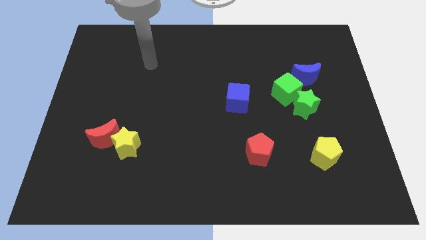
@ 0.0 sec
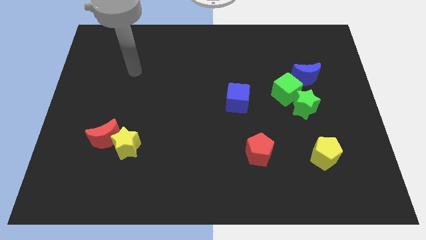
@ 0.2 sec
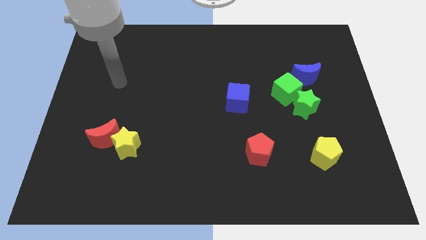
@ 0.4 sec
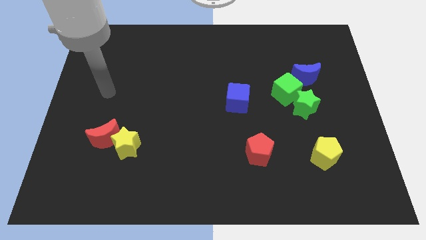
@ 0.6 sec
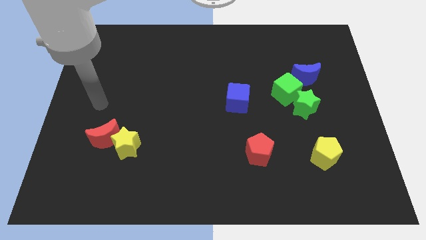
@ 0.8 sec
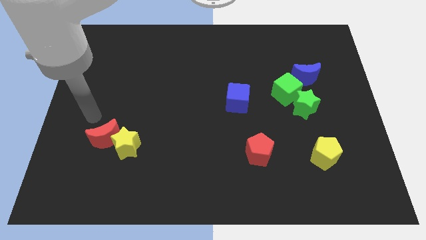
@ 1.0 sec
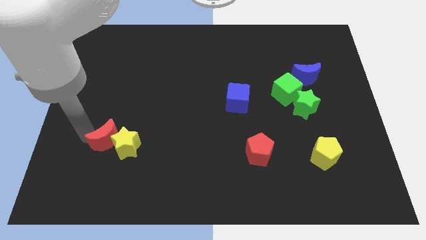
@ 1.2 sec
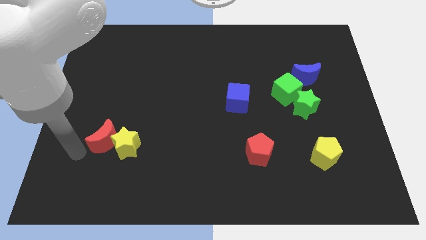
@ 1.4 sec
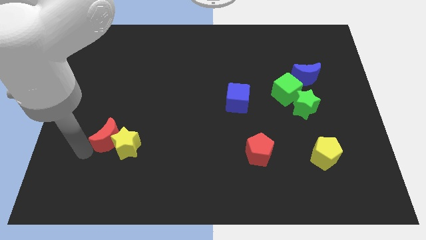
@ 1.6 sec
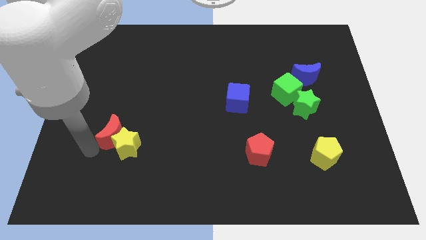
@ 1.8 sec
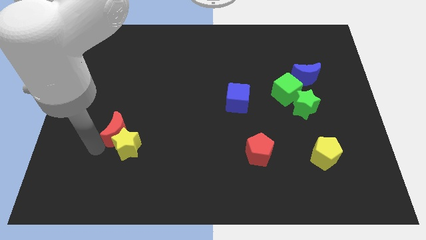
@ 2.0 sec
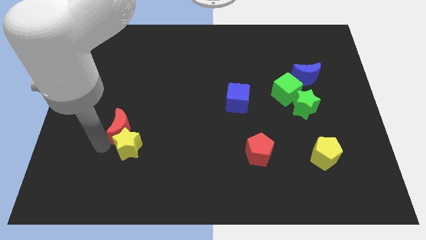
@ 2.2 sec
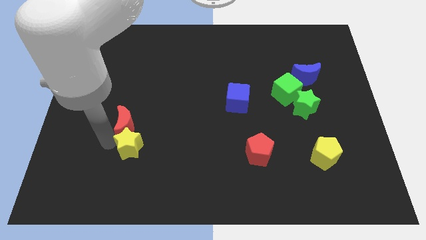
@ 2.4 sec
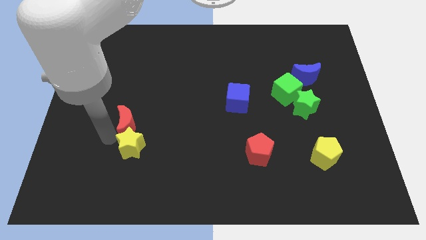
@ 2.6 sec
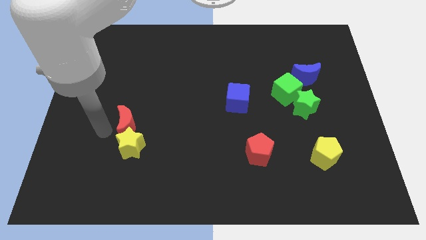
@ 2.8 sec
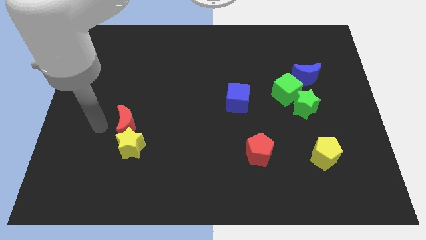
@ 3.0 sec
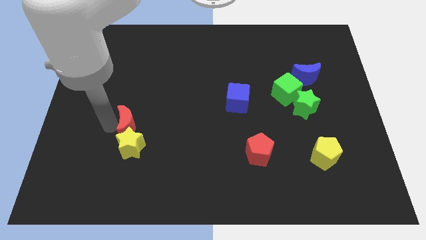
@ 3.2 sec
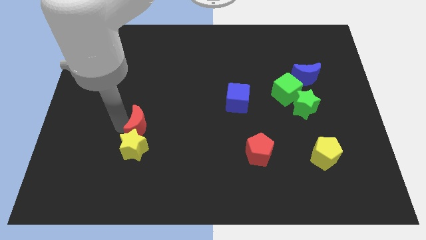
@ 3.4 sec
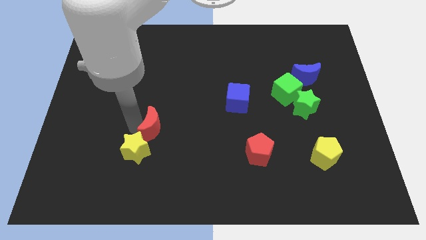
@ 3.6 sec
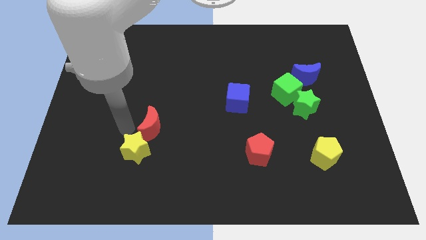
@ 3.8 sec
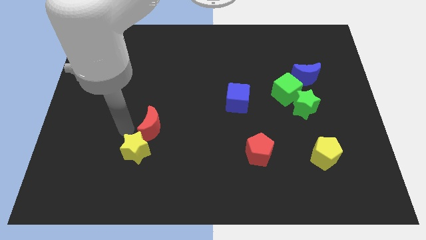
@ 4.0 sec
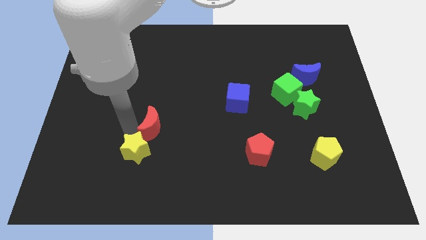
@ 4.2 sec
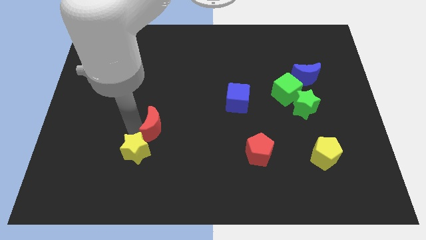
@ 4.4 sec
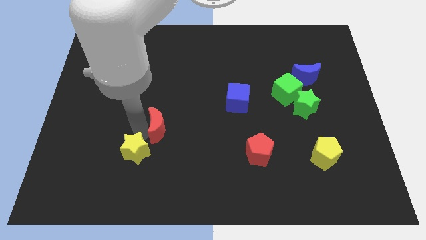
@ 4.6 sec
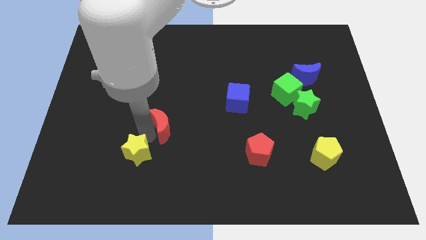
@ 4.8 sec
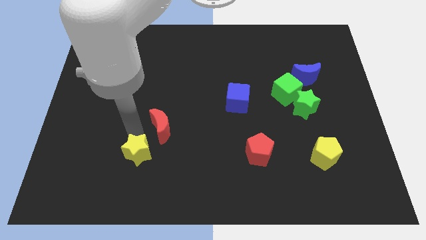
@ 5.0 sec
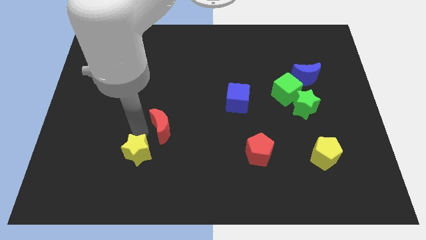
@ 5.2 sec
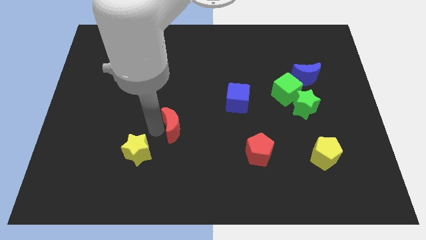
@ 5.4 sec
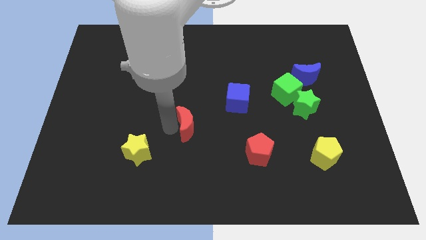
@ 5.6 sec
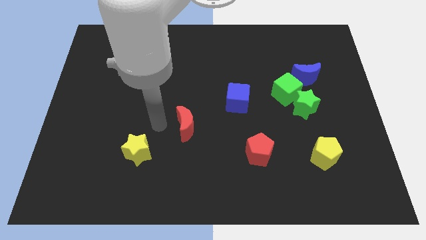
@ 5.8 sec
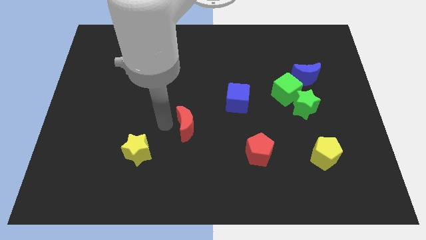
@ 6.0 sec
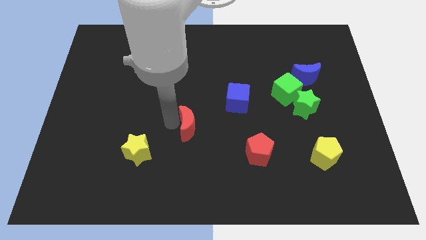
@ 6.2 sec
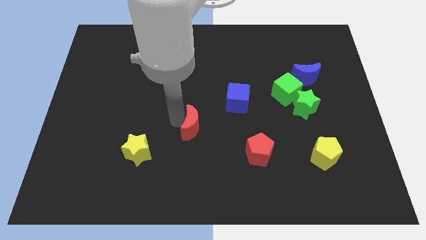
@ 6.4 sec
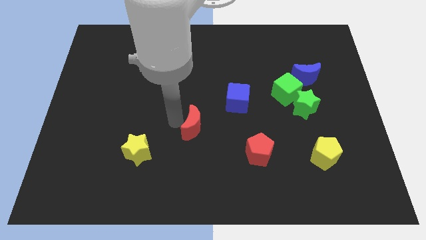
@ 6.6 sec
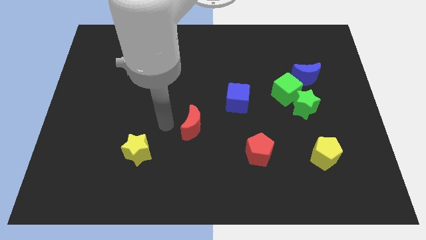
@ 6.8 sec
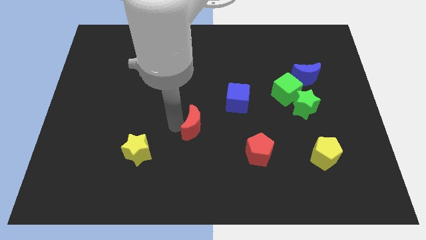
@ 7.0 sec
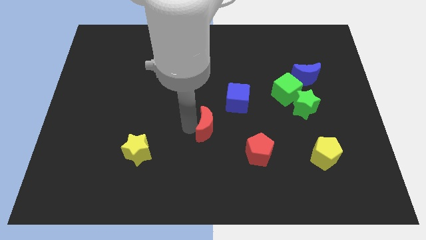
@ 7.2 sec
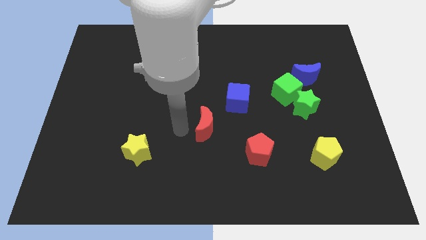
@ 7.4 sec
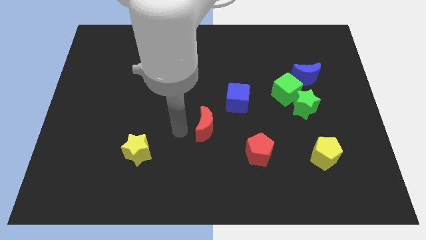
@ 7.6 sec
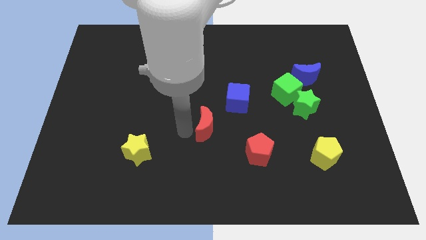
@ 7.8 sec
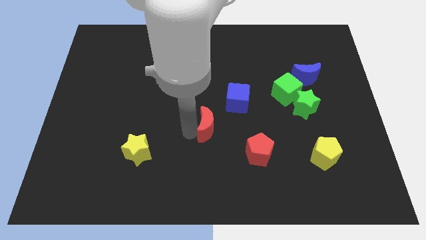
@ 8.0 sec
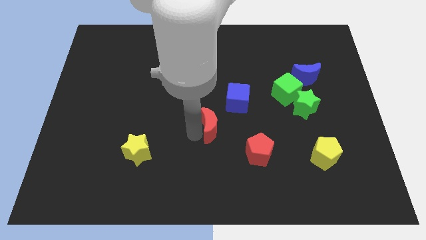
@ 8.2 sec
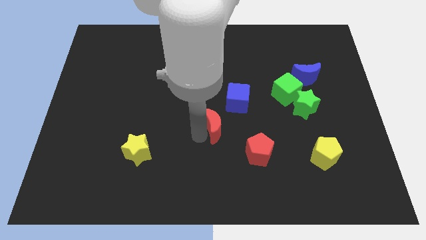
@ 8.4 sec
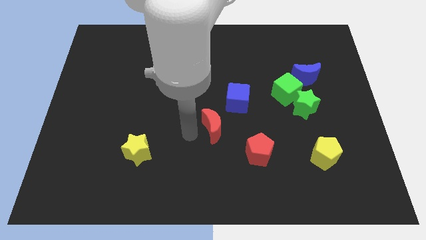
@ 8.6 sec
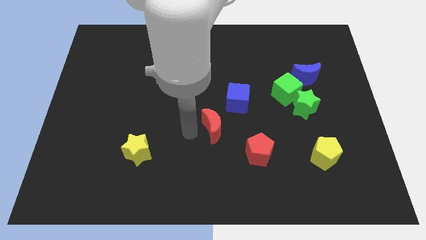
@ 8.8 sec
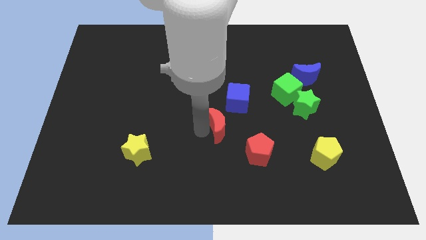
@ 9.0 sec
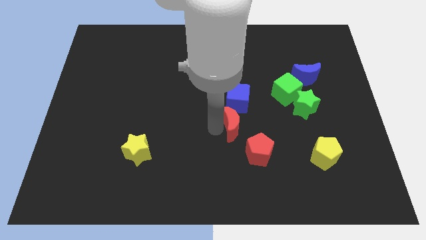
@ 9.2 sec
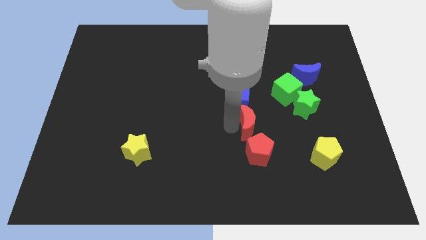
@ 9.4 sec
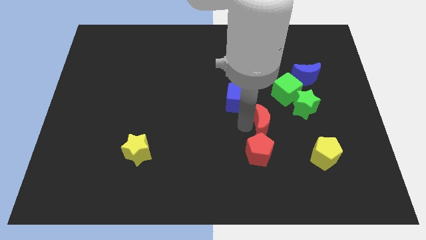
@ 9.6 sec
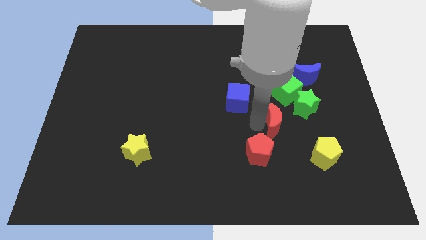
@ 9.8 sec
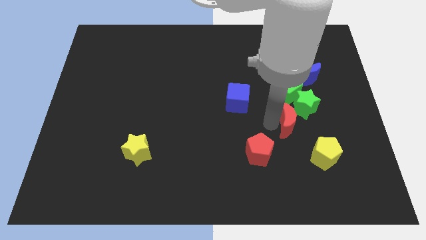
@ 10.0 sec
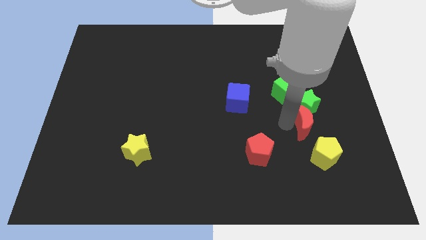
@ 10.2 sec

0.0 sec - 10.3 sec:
put the red moon to the bottom right of the green star

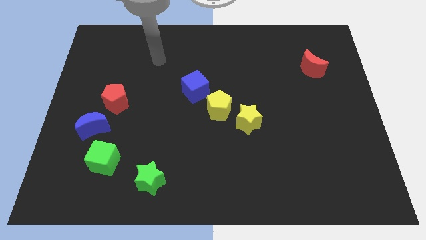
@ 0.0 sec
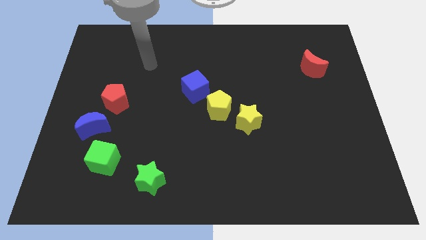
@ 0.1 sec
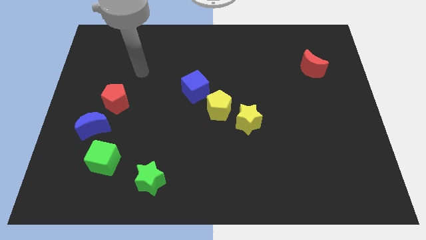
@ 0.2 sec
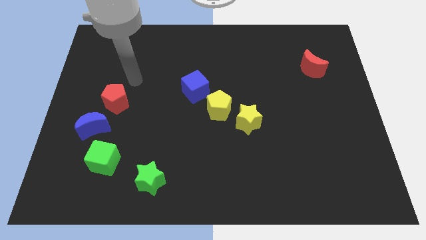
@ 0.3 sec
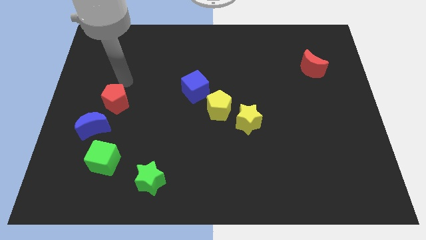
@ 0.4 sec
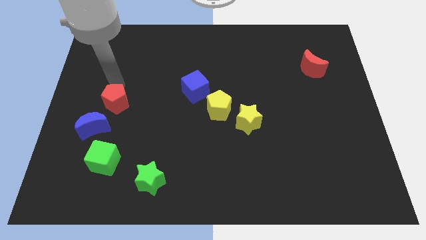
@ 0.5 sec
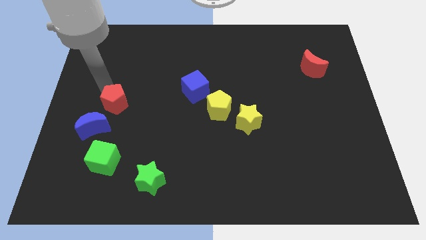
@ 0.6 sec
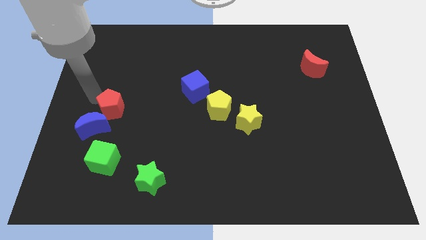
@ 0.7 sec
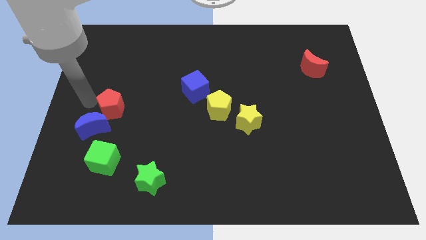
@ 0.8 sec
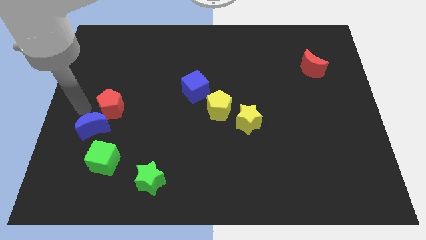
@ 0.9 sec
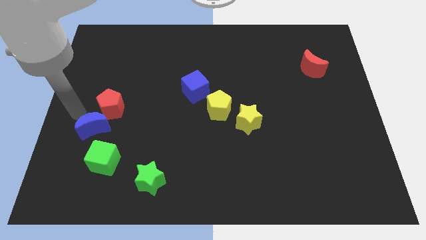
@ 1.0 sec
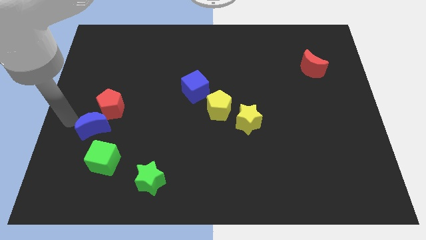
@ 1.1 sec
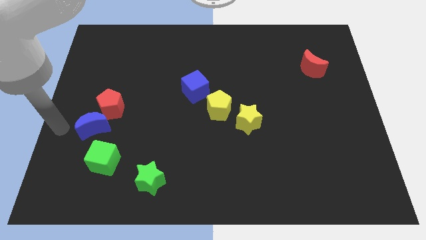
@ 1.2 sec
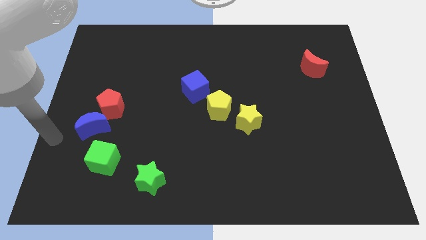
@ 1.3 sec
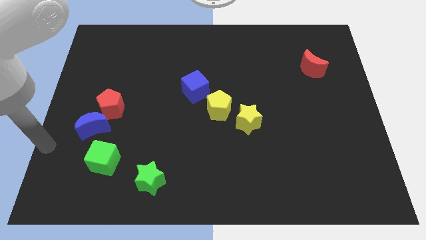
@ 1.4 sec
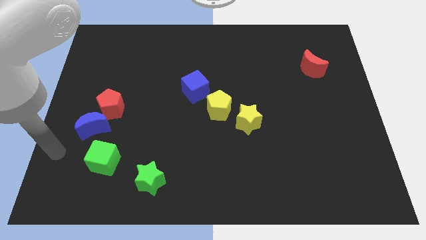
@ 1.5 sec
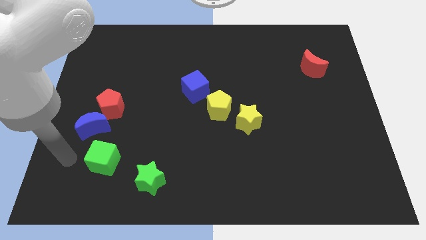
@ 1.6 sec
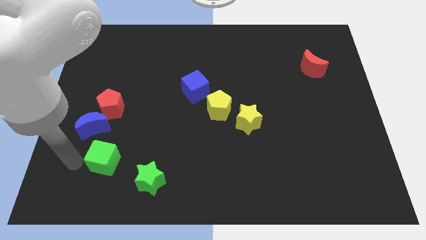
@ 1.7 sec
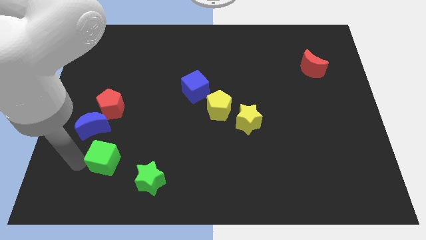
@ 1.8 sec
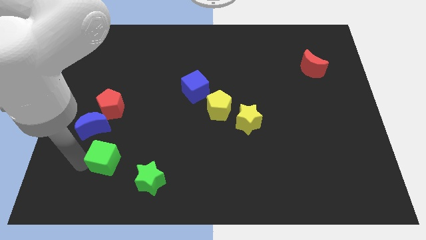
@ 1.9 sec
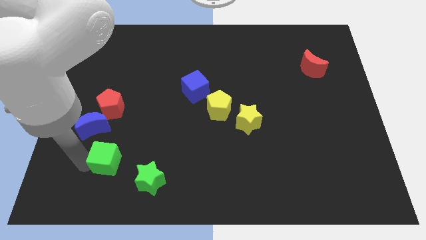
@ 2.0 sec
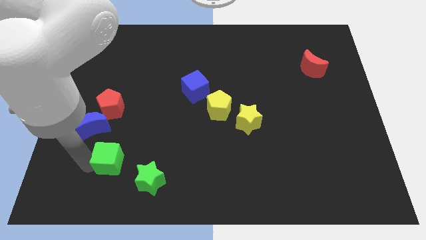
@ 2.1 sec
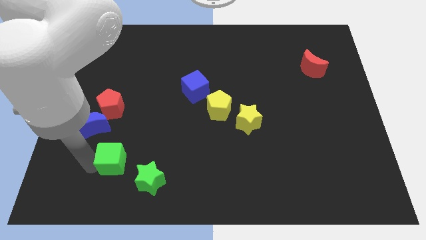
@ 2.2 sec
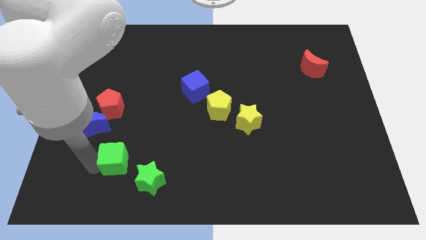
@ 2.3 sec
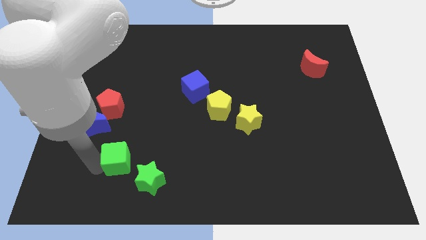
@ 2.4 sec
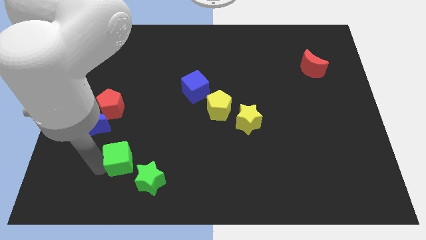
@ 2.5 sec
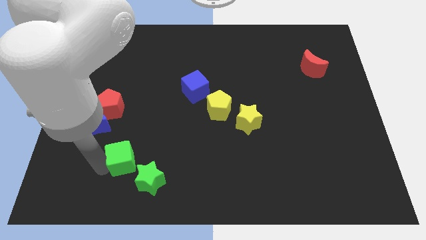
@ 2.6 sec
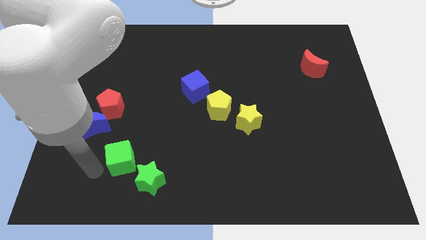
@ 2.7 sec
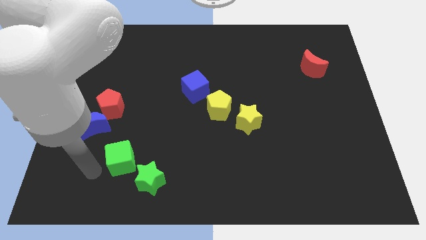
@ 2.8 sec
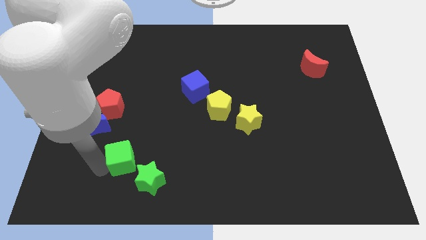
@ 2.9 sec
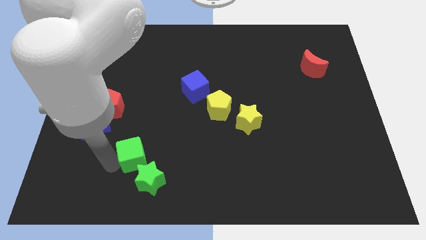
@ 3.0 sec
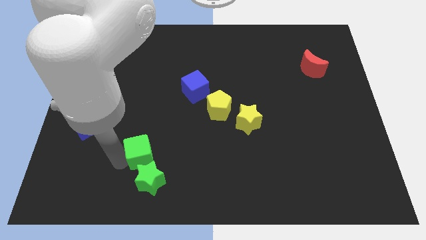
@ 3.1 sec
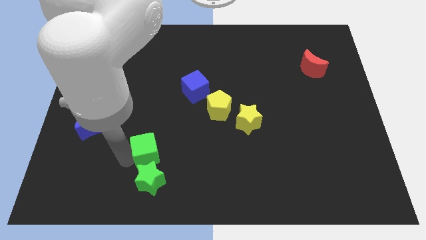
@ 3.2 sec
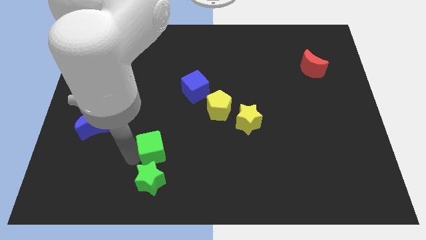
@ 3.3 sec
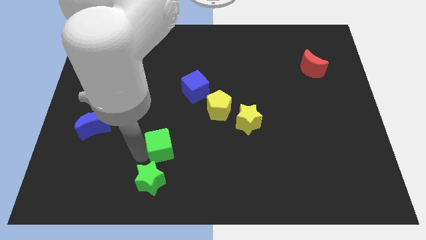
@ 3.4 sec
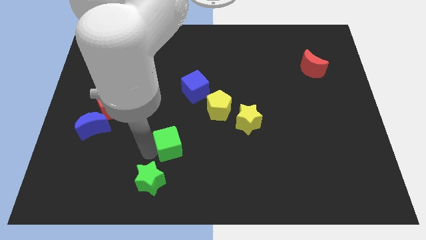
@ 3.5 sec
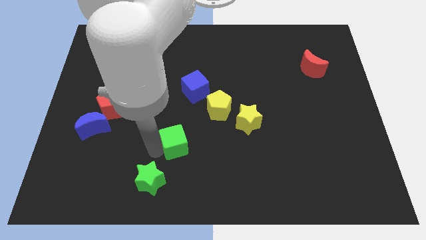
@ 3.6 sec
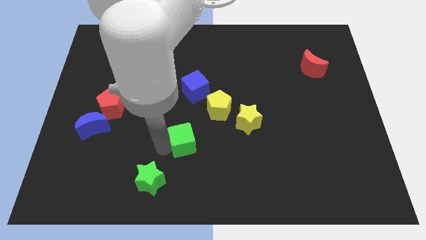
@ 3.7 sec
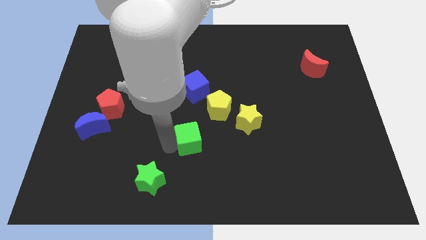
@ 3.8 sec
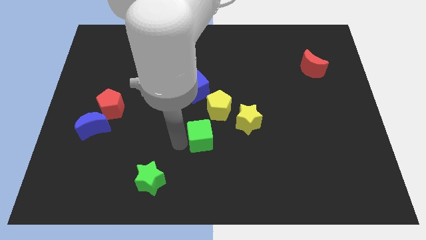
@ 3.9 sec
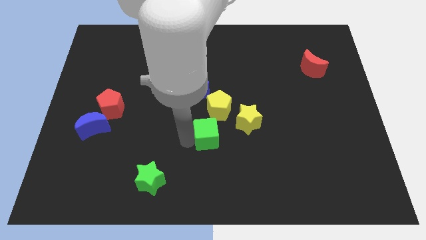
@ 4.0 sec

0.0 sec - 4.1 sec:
move the green cube to the bottom left of the yellow star
